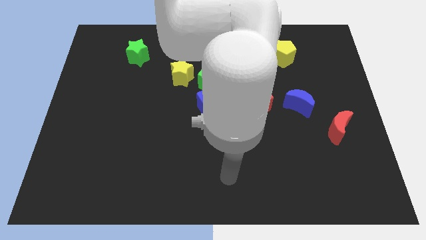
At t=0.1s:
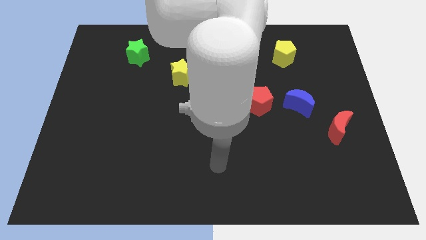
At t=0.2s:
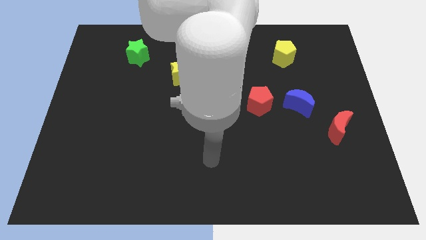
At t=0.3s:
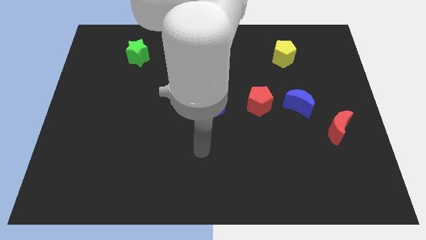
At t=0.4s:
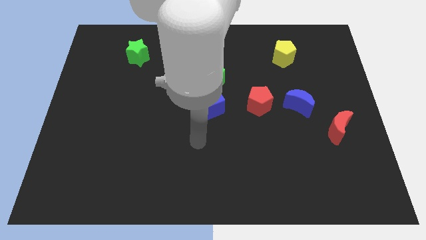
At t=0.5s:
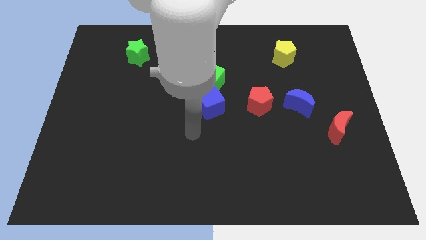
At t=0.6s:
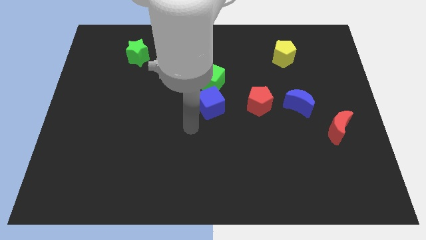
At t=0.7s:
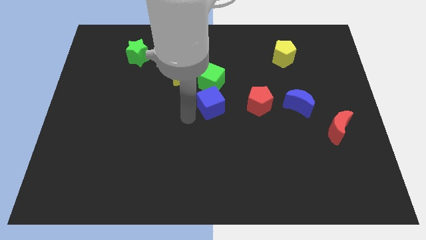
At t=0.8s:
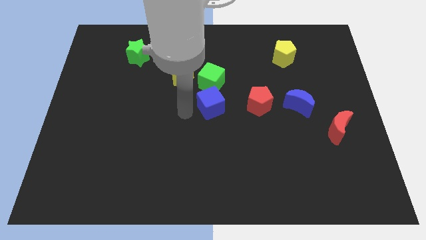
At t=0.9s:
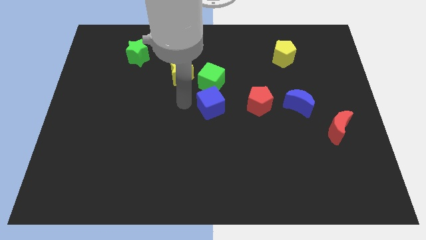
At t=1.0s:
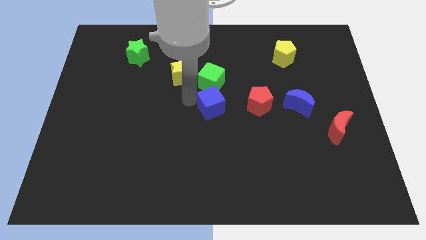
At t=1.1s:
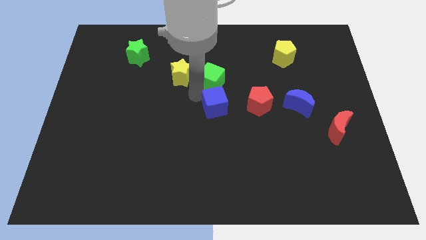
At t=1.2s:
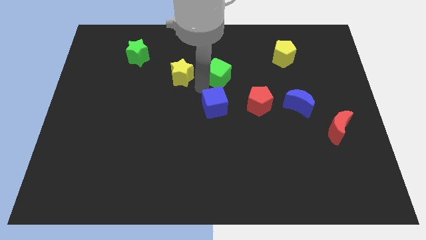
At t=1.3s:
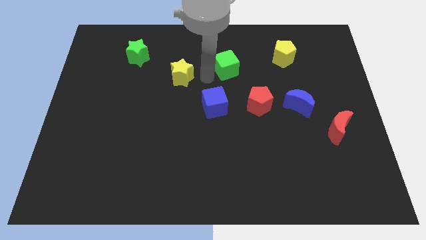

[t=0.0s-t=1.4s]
separate the yellow star from the green cube

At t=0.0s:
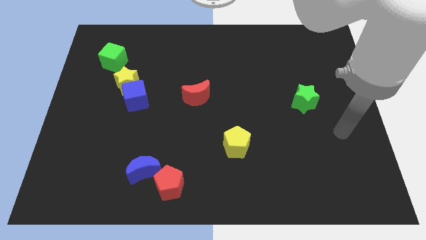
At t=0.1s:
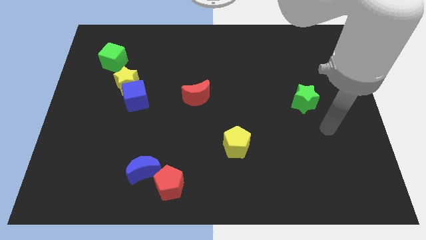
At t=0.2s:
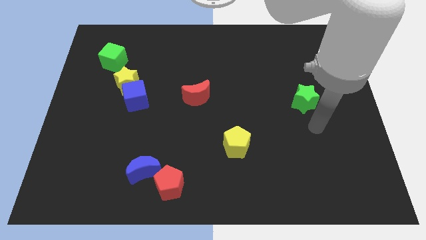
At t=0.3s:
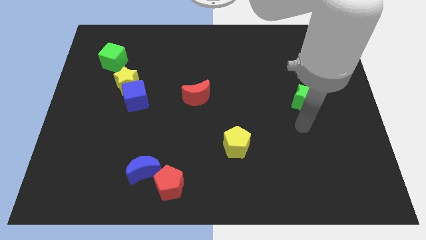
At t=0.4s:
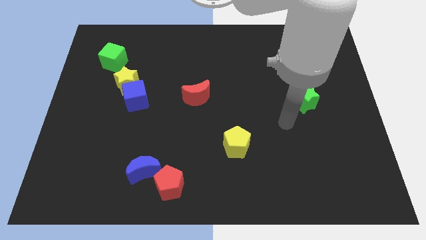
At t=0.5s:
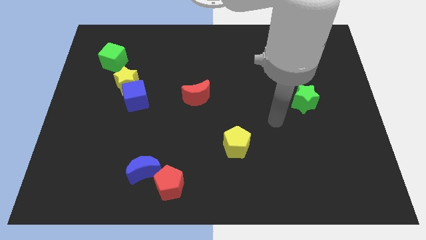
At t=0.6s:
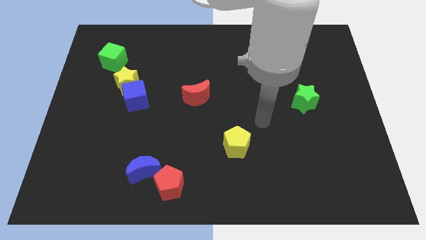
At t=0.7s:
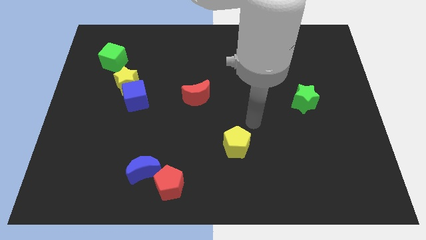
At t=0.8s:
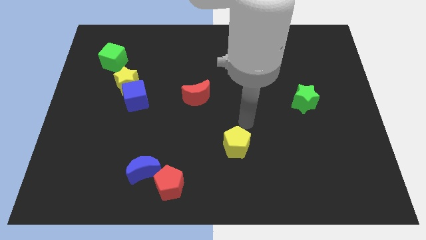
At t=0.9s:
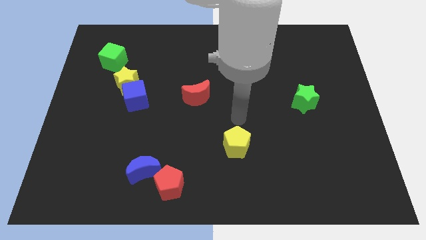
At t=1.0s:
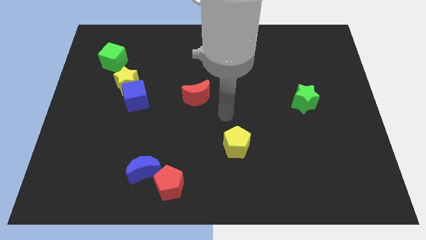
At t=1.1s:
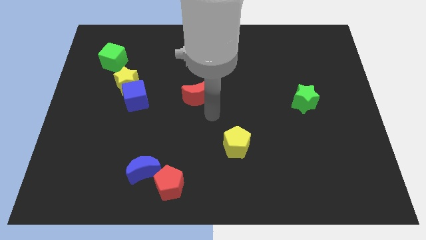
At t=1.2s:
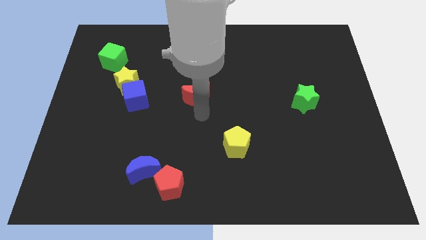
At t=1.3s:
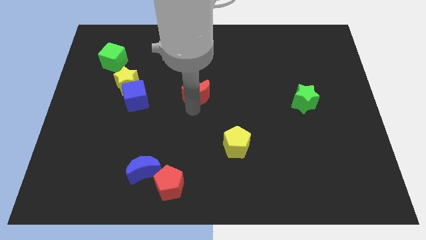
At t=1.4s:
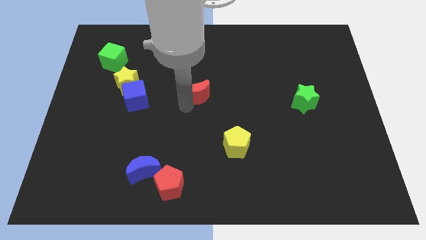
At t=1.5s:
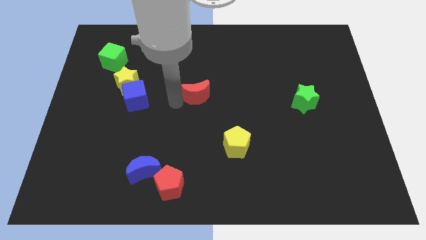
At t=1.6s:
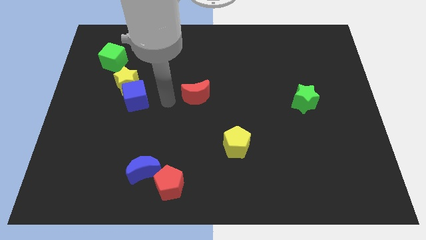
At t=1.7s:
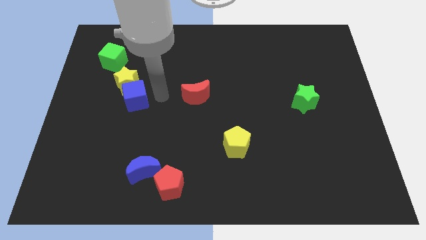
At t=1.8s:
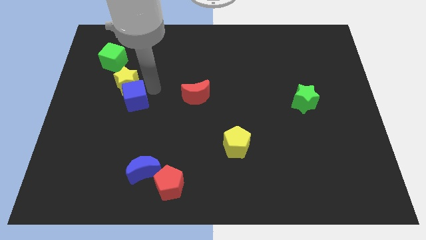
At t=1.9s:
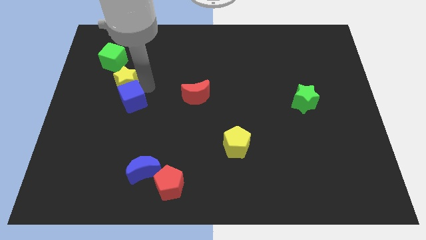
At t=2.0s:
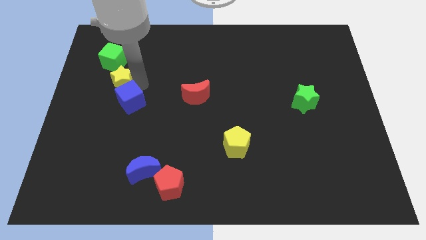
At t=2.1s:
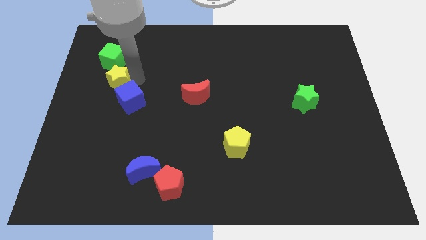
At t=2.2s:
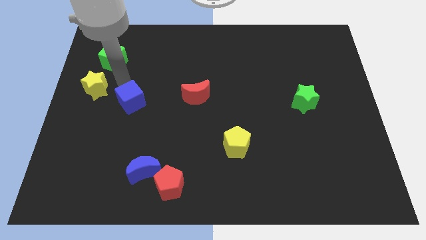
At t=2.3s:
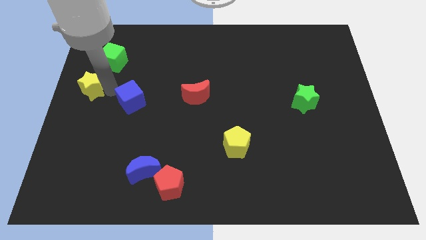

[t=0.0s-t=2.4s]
pull the blue cube apart from the yellow star

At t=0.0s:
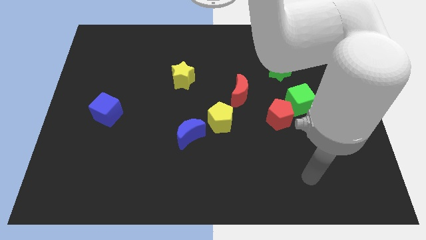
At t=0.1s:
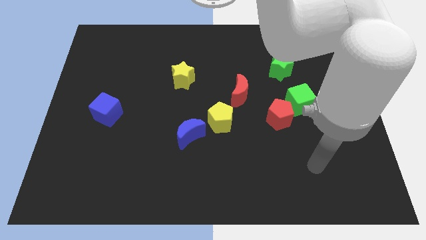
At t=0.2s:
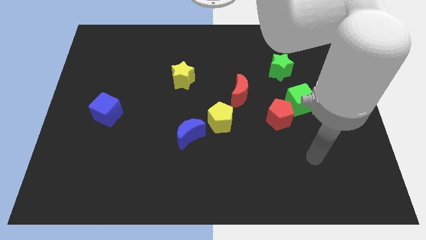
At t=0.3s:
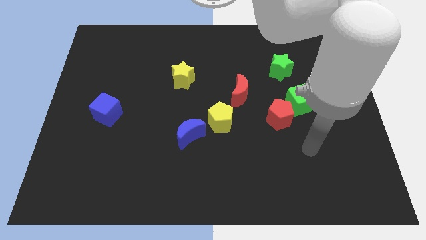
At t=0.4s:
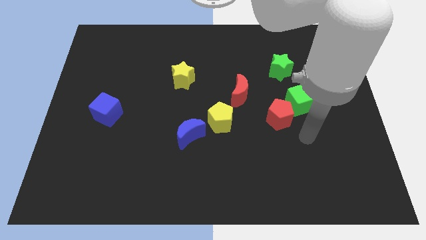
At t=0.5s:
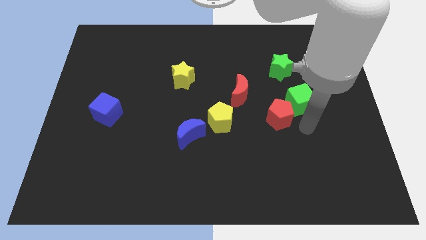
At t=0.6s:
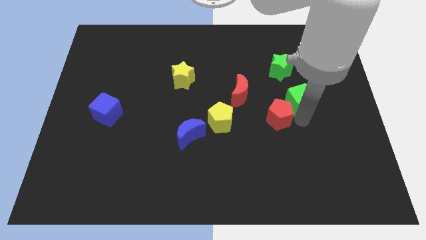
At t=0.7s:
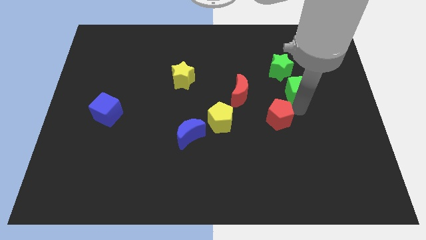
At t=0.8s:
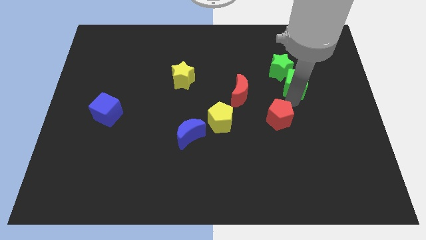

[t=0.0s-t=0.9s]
separate the red pentagon from the green cube

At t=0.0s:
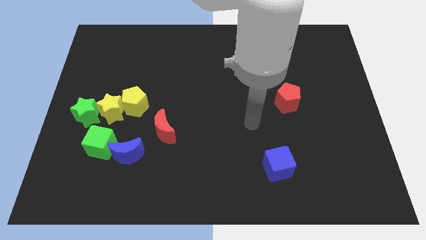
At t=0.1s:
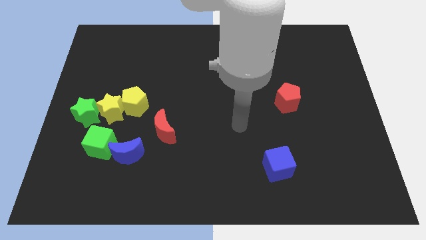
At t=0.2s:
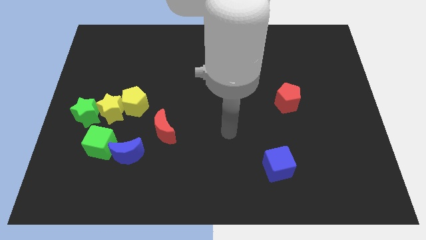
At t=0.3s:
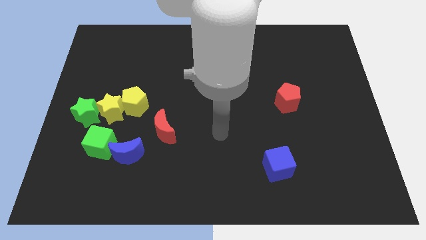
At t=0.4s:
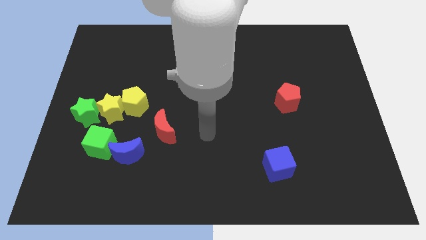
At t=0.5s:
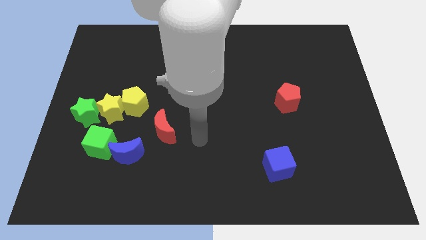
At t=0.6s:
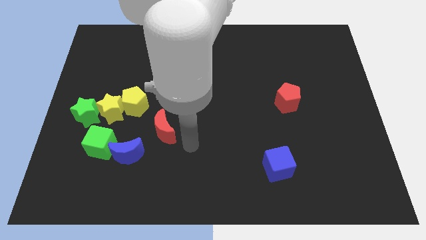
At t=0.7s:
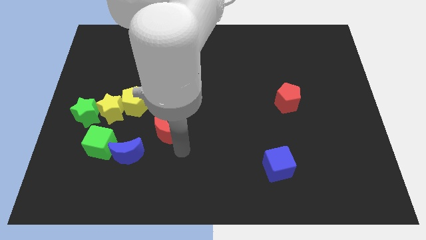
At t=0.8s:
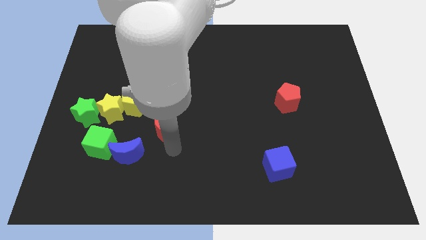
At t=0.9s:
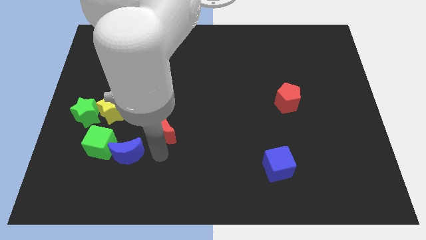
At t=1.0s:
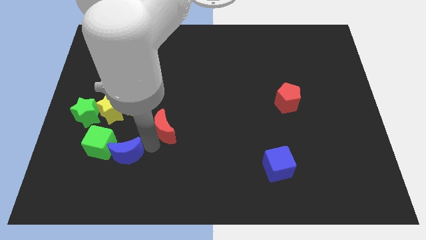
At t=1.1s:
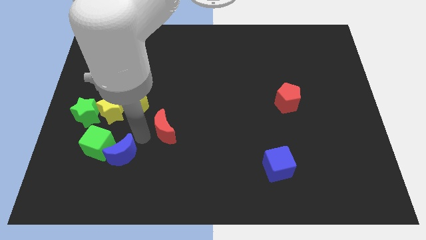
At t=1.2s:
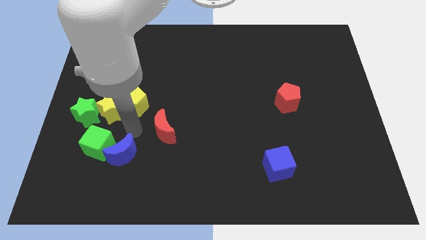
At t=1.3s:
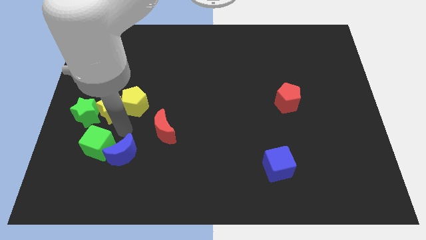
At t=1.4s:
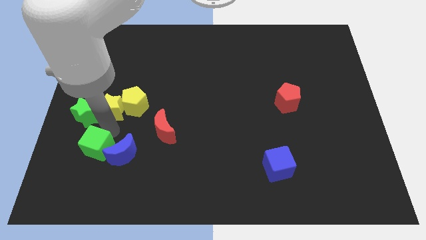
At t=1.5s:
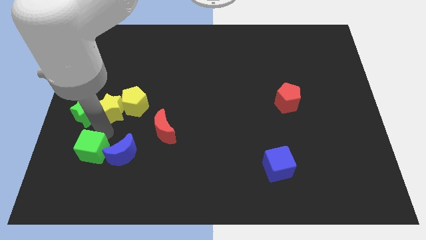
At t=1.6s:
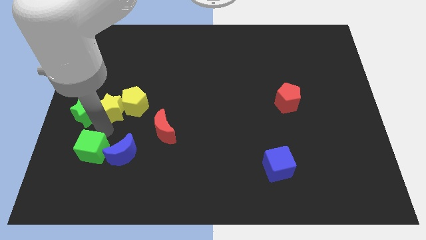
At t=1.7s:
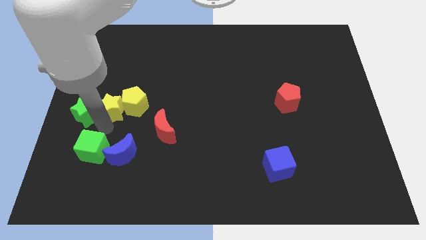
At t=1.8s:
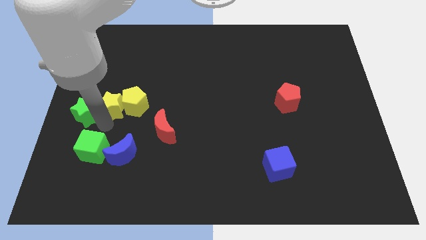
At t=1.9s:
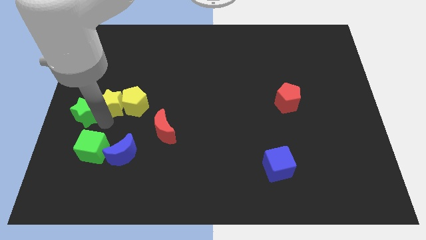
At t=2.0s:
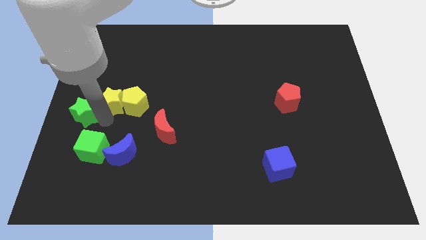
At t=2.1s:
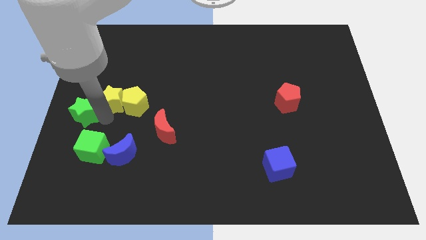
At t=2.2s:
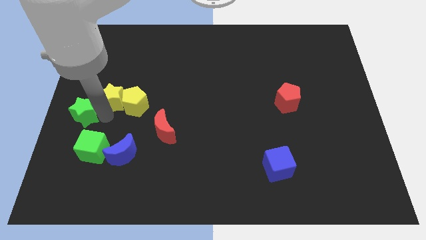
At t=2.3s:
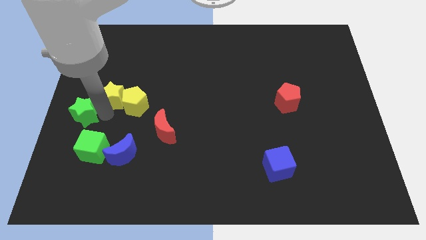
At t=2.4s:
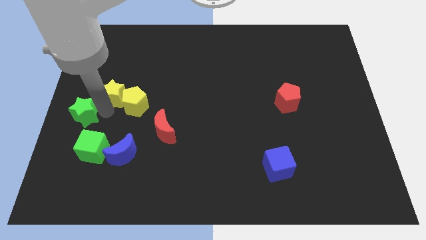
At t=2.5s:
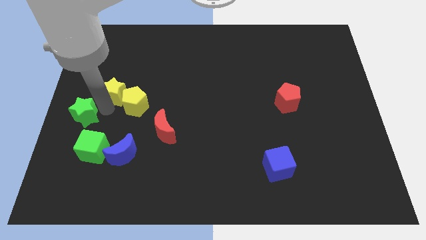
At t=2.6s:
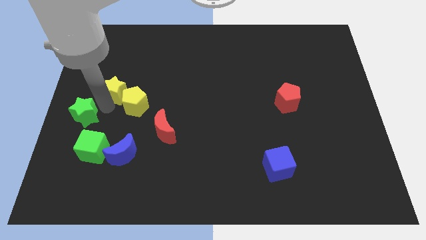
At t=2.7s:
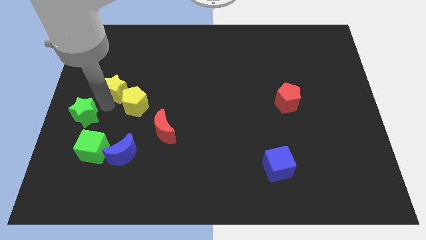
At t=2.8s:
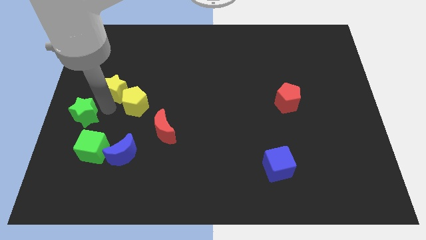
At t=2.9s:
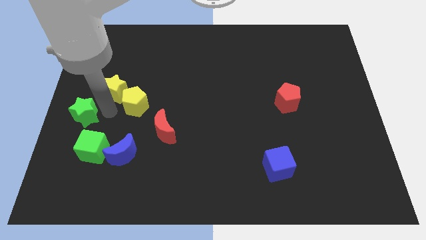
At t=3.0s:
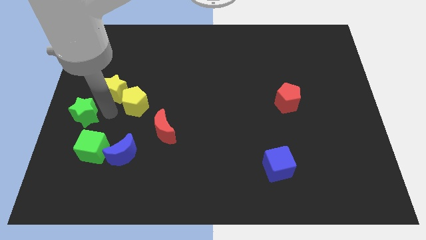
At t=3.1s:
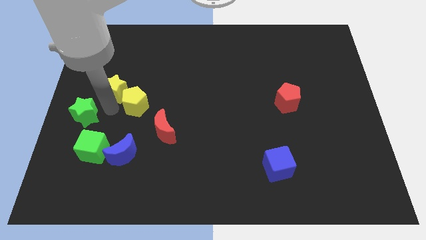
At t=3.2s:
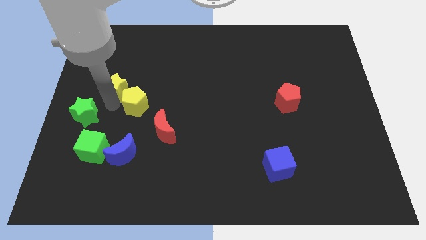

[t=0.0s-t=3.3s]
move the yellow star away from the yellow pentagon, green star, and green cube

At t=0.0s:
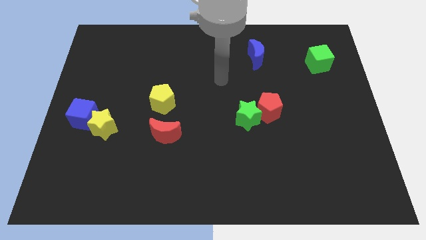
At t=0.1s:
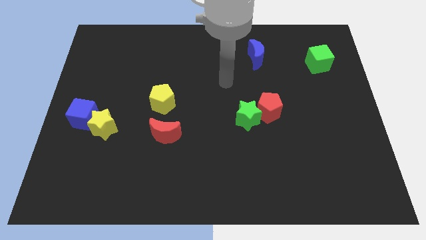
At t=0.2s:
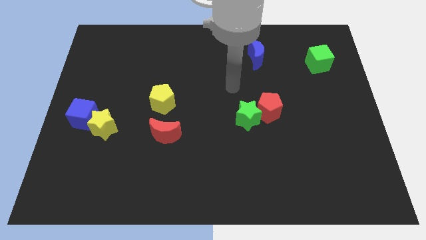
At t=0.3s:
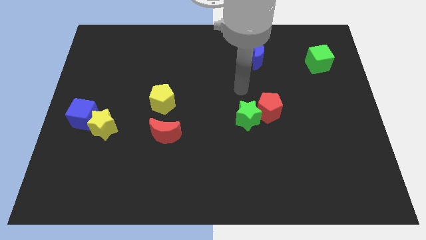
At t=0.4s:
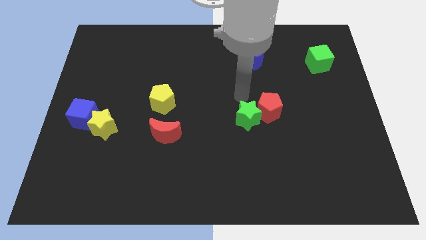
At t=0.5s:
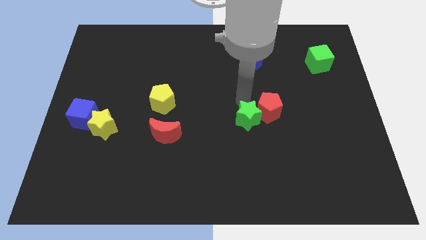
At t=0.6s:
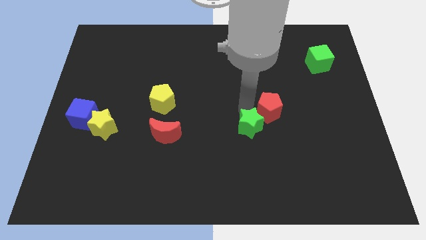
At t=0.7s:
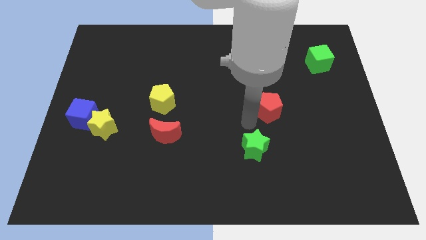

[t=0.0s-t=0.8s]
move the red pentagon away from the green star

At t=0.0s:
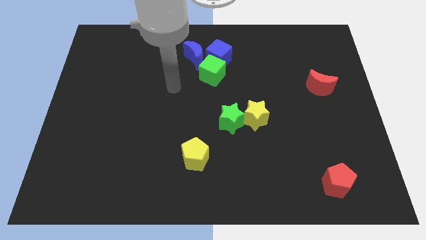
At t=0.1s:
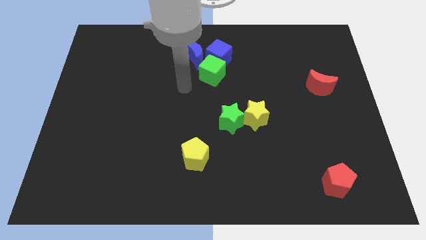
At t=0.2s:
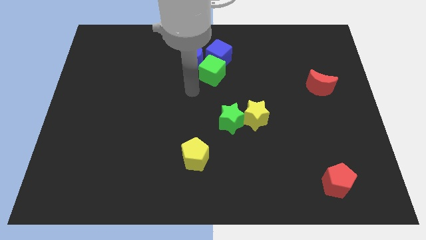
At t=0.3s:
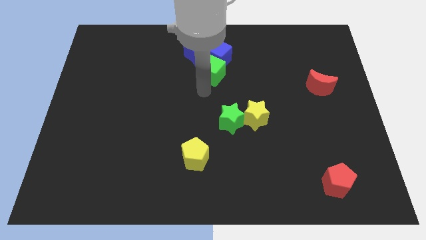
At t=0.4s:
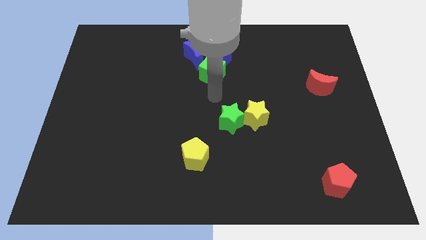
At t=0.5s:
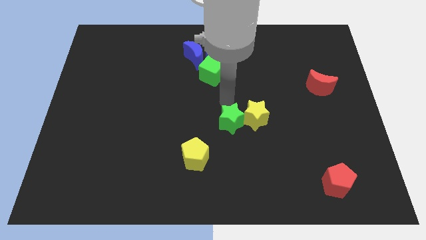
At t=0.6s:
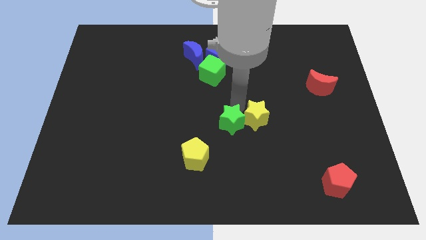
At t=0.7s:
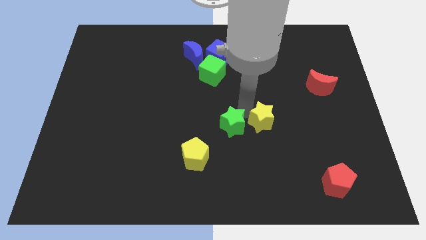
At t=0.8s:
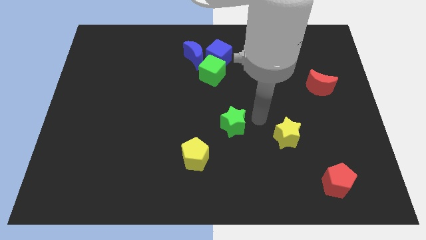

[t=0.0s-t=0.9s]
pull the green star apart from the yellow star
